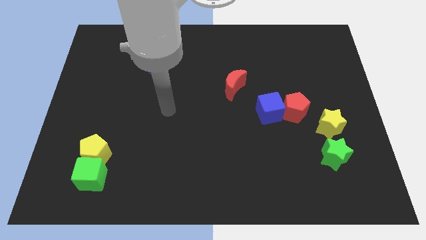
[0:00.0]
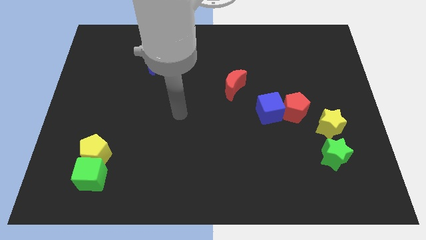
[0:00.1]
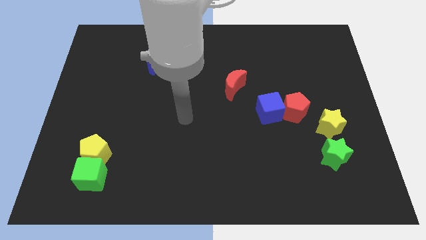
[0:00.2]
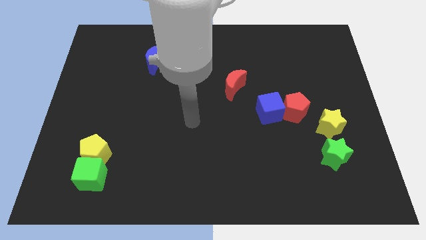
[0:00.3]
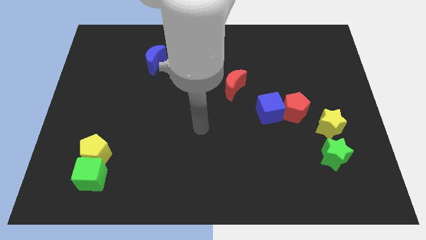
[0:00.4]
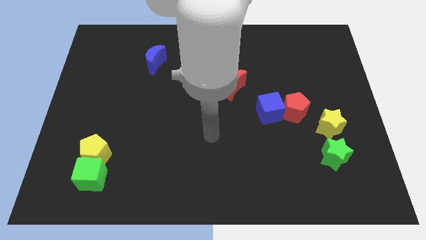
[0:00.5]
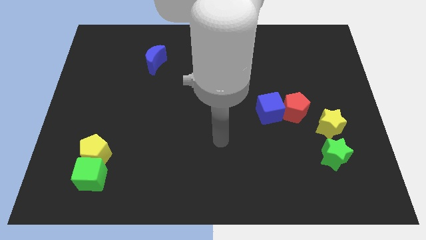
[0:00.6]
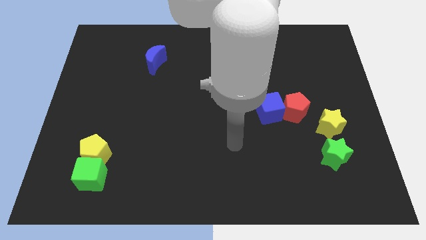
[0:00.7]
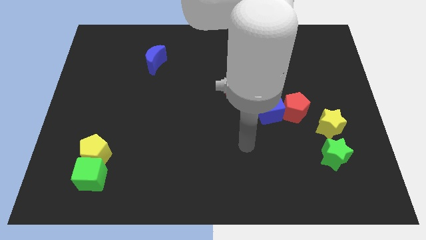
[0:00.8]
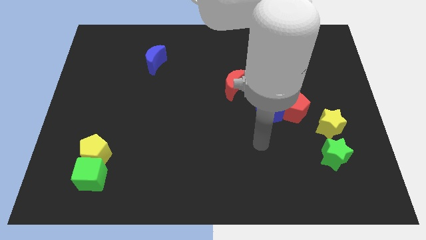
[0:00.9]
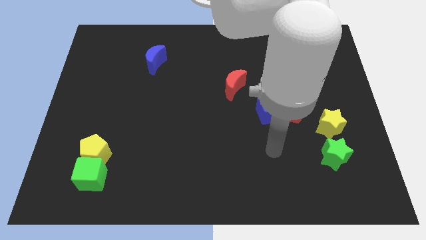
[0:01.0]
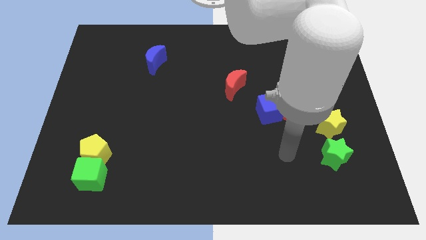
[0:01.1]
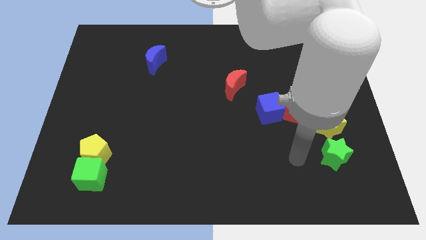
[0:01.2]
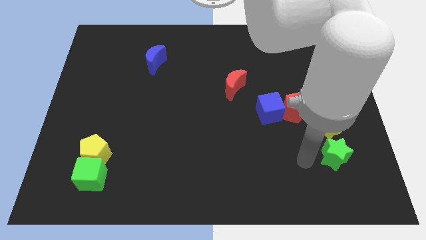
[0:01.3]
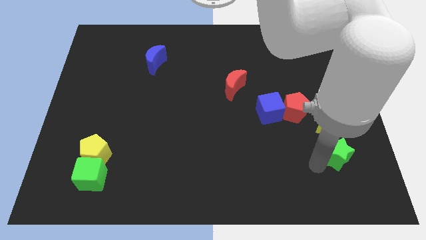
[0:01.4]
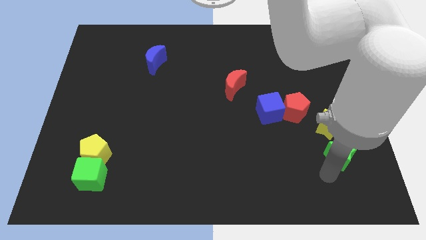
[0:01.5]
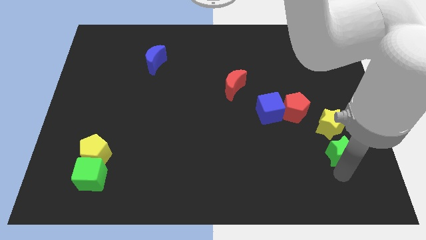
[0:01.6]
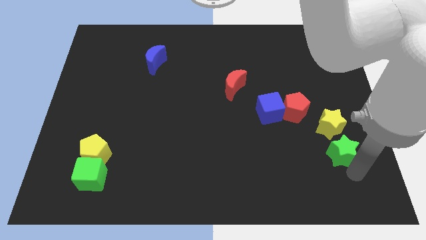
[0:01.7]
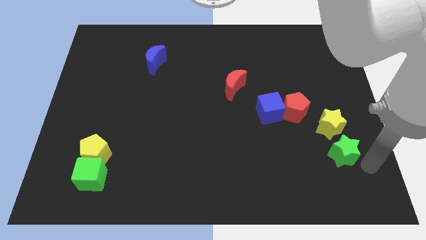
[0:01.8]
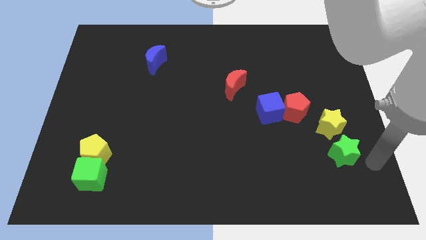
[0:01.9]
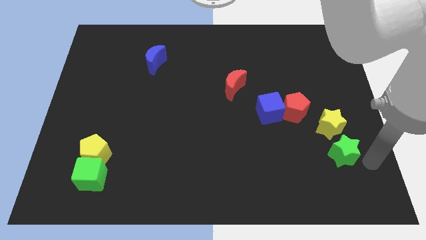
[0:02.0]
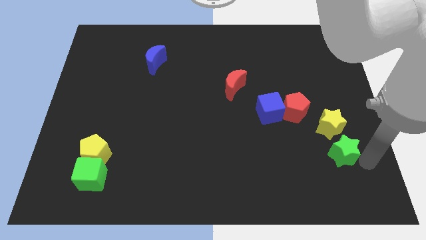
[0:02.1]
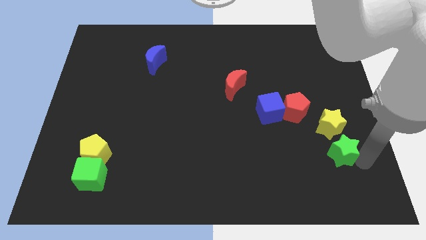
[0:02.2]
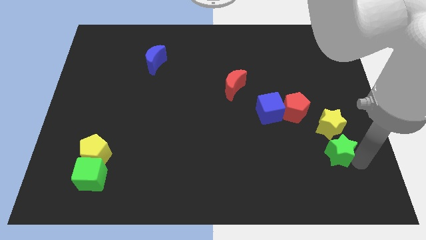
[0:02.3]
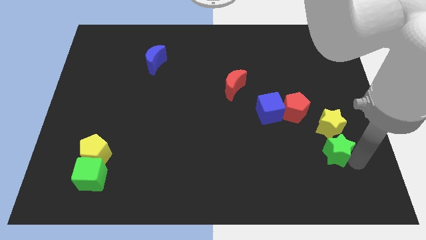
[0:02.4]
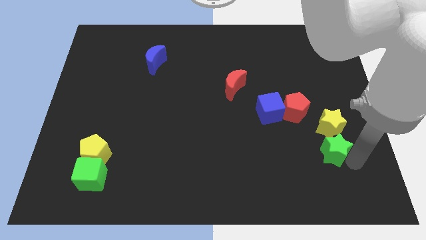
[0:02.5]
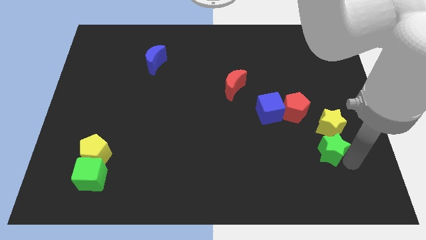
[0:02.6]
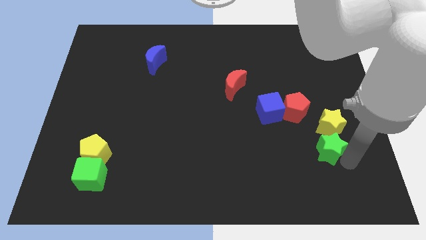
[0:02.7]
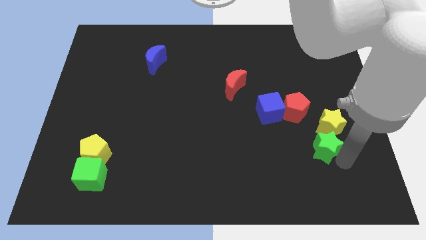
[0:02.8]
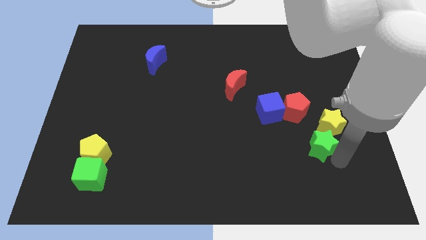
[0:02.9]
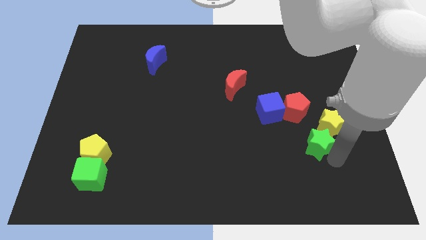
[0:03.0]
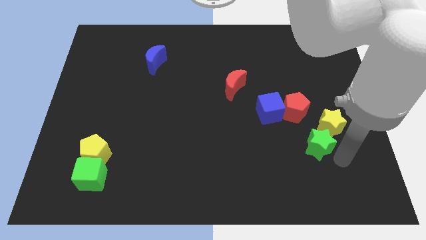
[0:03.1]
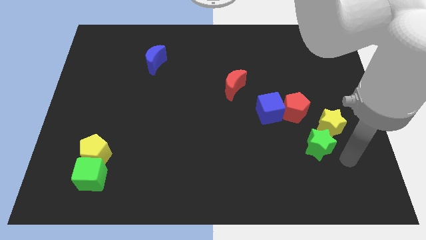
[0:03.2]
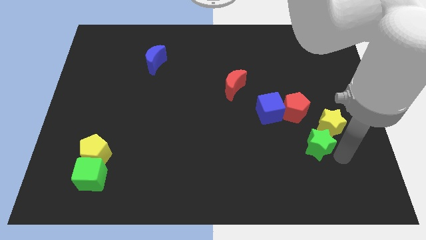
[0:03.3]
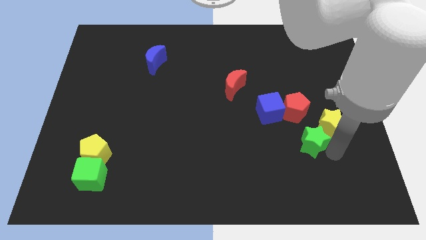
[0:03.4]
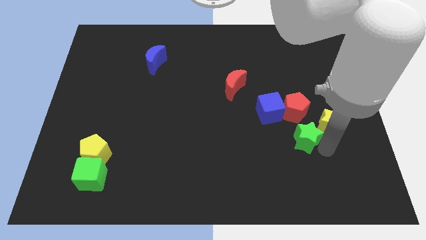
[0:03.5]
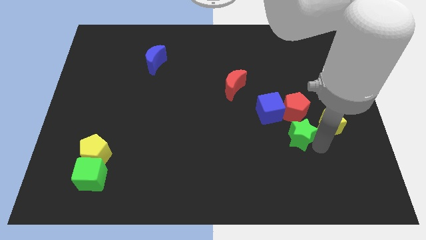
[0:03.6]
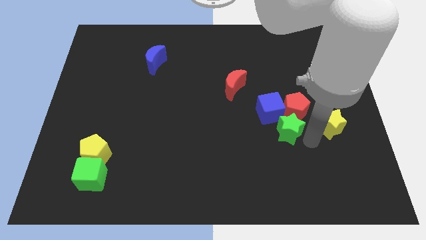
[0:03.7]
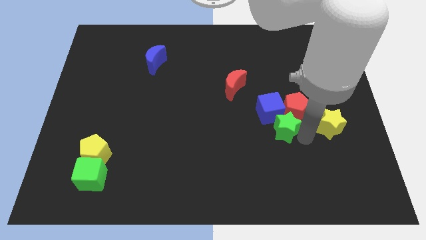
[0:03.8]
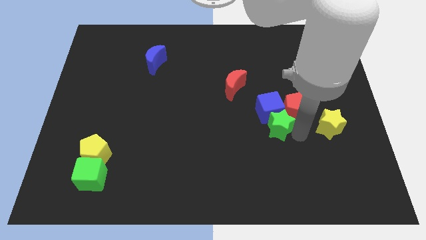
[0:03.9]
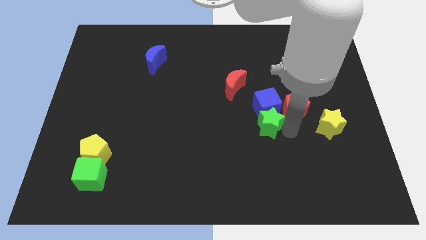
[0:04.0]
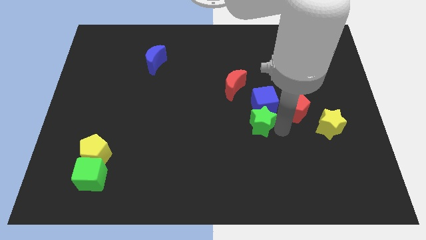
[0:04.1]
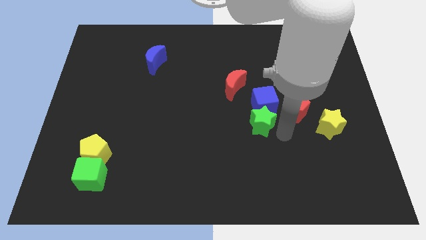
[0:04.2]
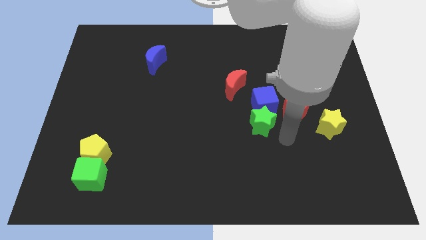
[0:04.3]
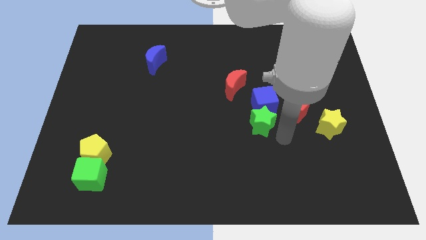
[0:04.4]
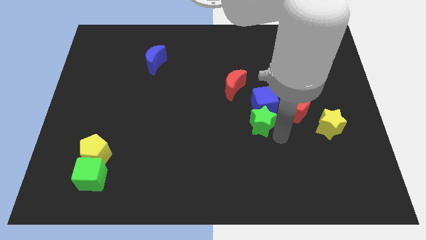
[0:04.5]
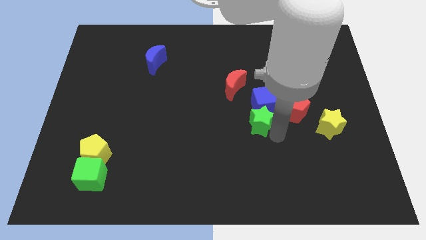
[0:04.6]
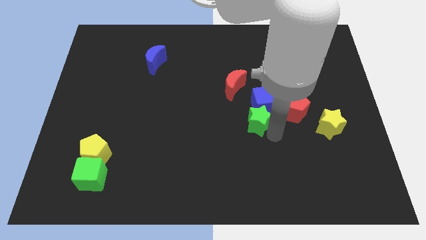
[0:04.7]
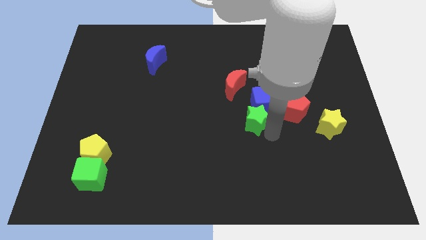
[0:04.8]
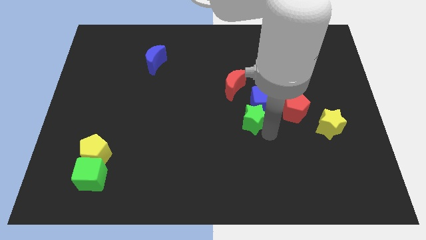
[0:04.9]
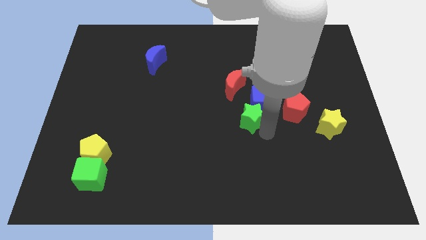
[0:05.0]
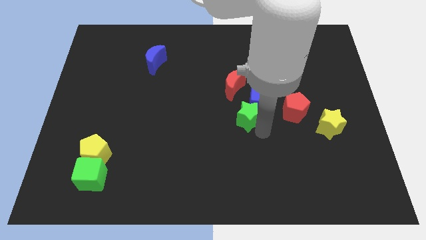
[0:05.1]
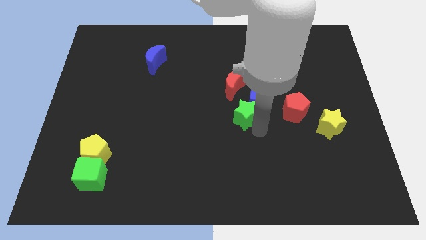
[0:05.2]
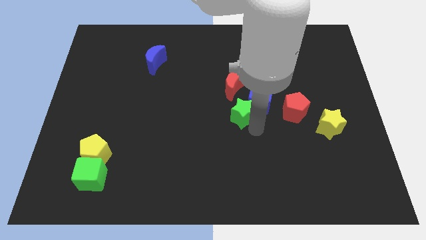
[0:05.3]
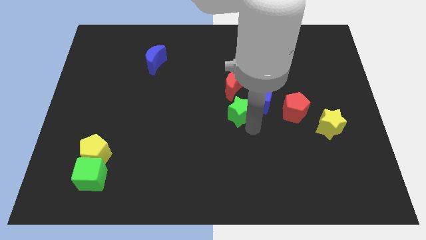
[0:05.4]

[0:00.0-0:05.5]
push the green star diagonally up and to the left

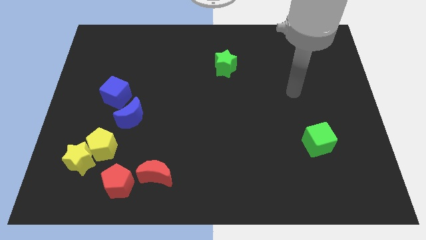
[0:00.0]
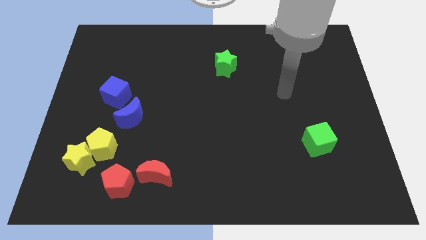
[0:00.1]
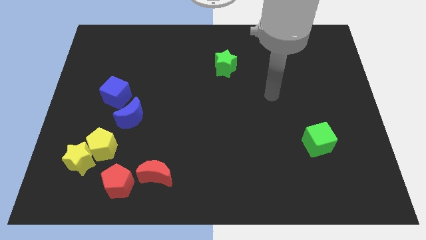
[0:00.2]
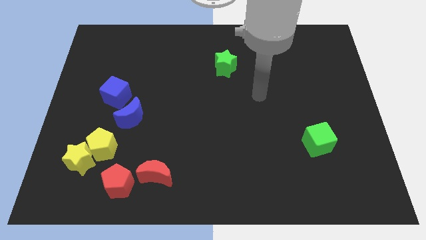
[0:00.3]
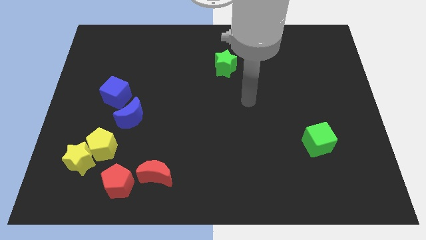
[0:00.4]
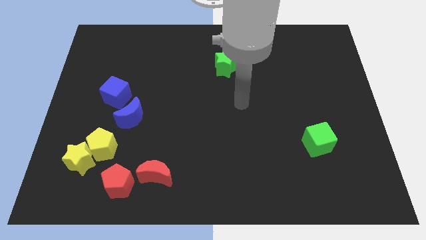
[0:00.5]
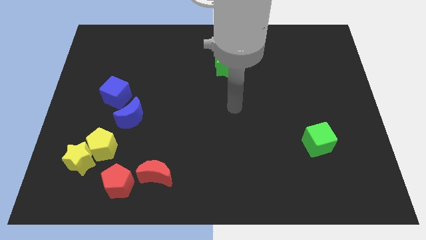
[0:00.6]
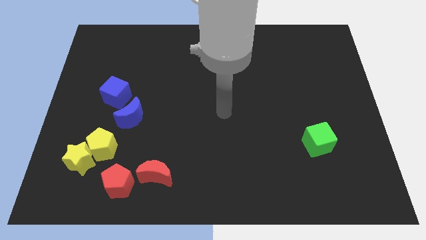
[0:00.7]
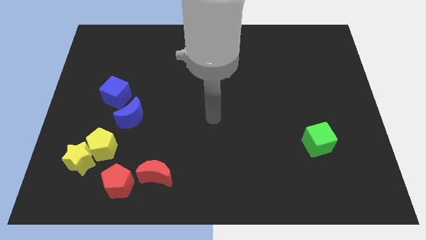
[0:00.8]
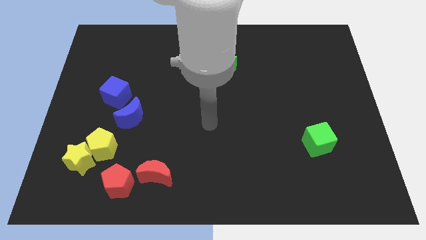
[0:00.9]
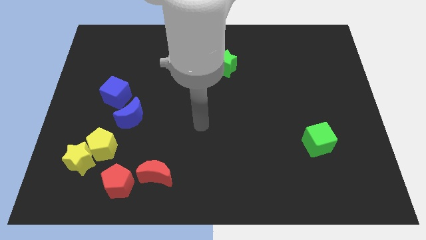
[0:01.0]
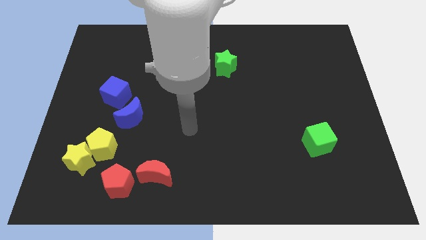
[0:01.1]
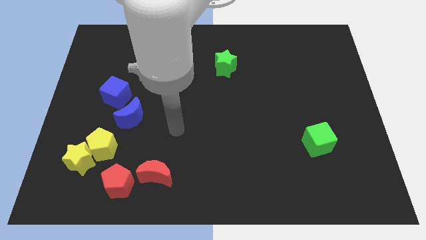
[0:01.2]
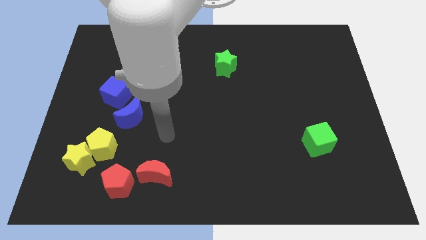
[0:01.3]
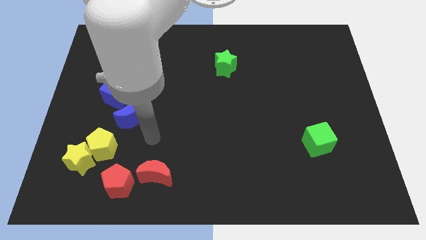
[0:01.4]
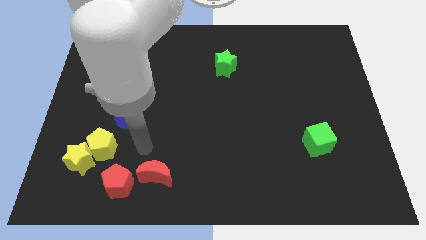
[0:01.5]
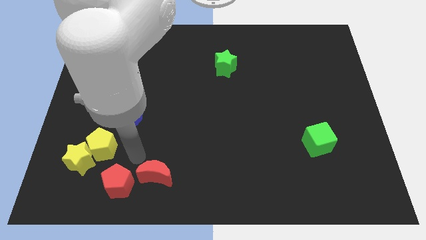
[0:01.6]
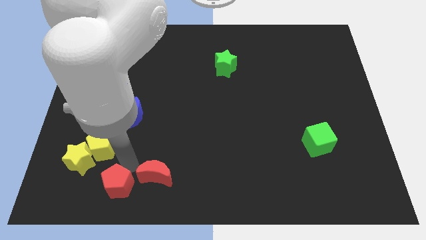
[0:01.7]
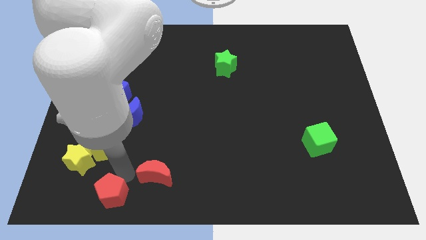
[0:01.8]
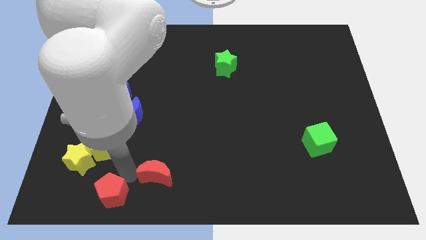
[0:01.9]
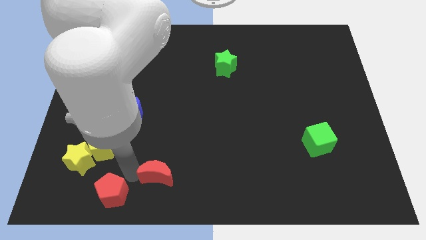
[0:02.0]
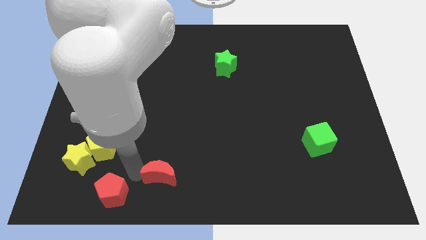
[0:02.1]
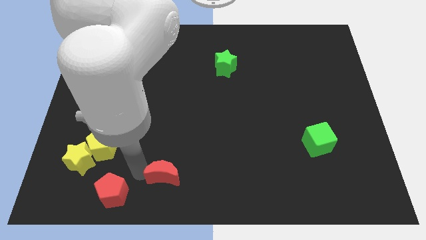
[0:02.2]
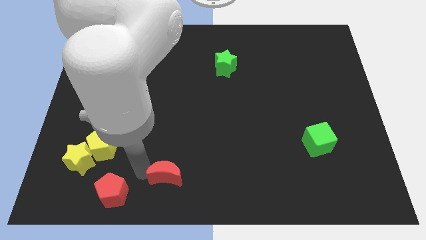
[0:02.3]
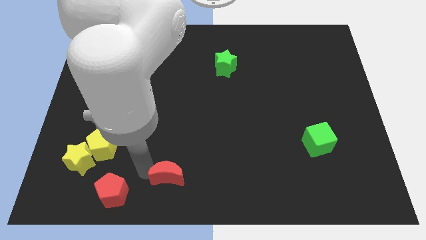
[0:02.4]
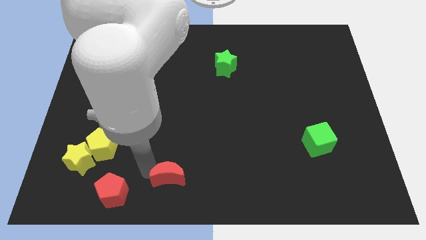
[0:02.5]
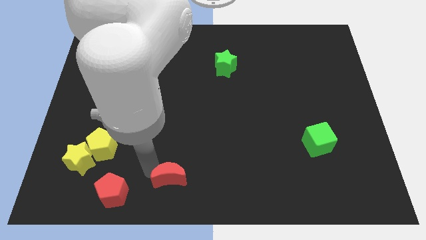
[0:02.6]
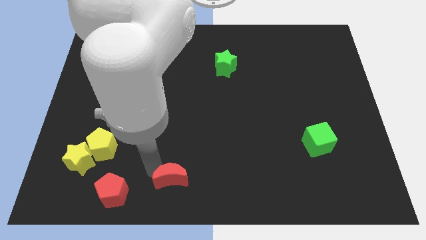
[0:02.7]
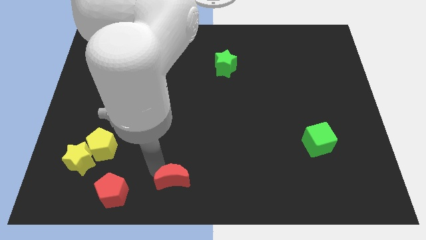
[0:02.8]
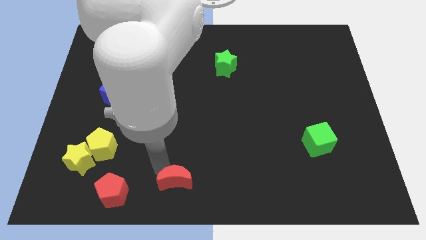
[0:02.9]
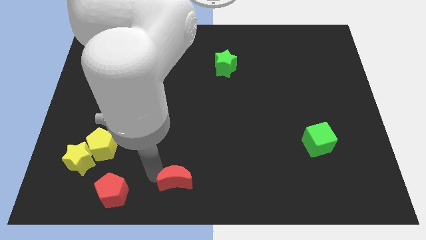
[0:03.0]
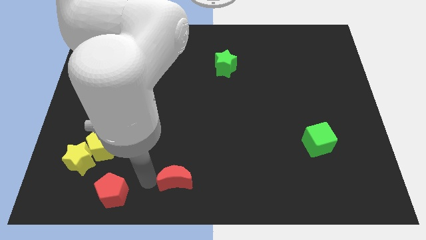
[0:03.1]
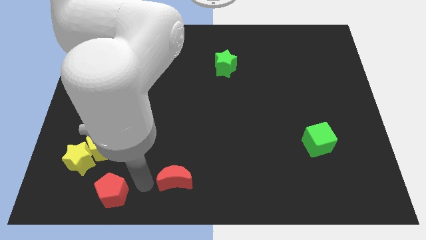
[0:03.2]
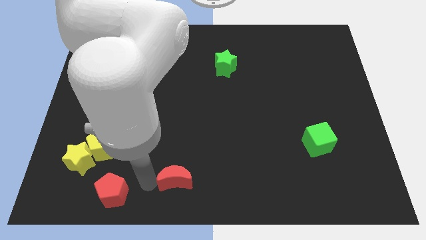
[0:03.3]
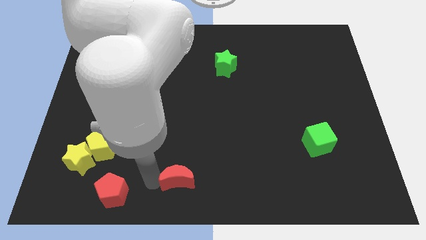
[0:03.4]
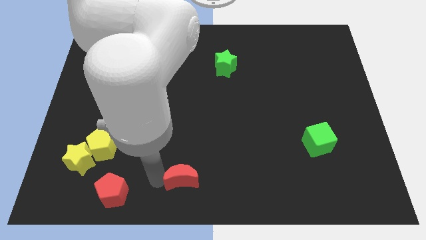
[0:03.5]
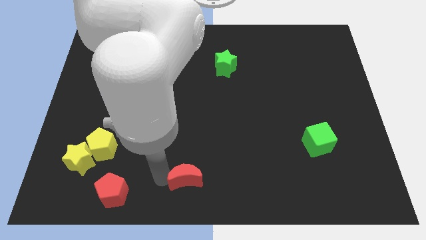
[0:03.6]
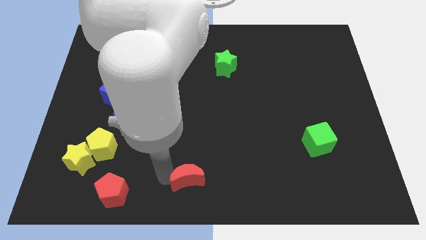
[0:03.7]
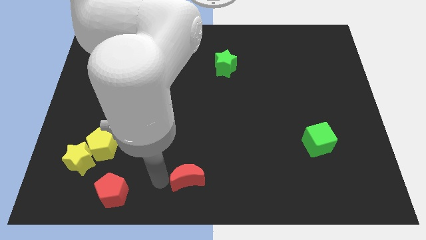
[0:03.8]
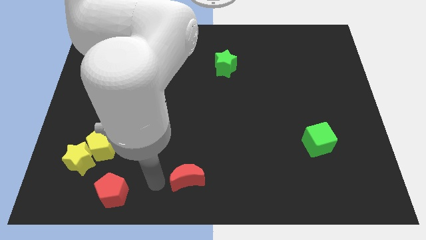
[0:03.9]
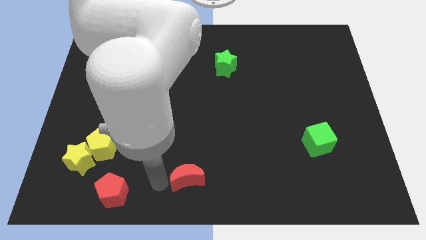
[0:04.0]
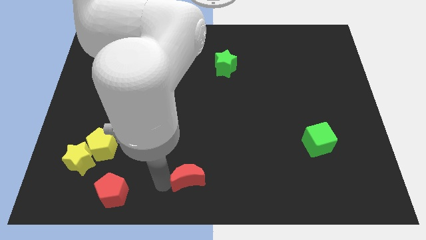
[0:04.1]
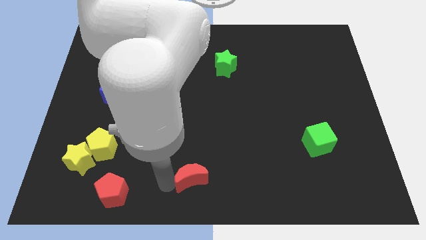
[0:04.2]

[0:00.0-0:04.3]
push the red moon to the right somewhat
